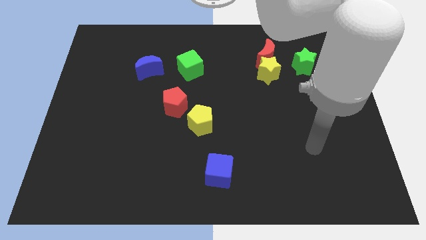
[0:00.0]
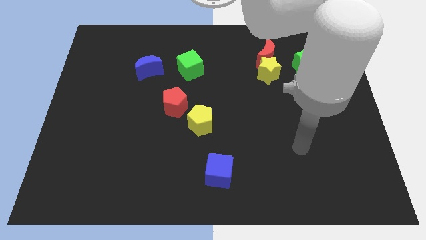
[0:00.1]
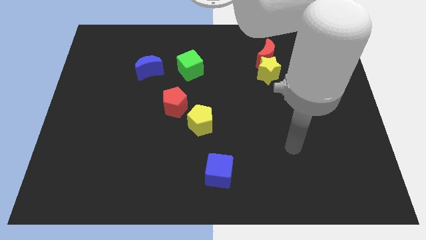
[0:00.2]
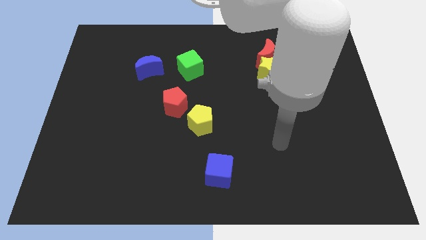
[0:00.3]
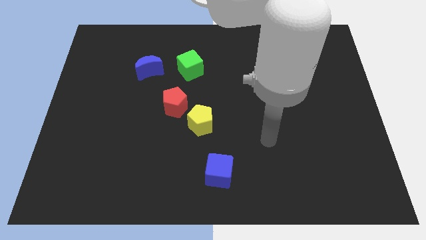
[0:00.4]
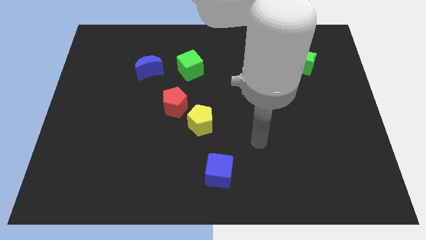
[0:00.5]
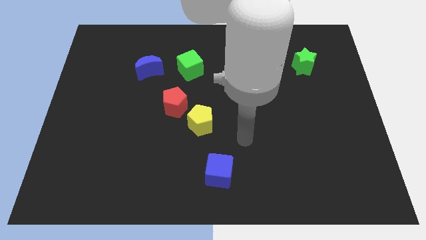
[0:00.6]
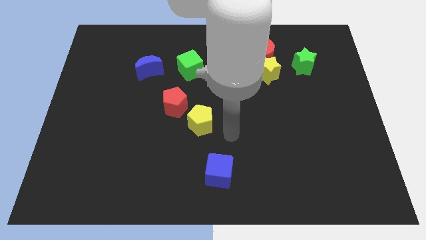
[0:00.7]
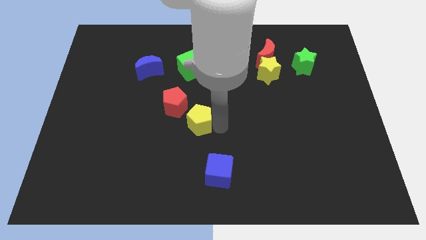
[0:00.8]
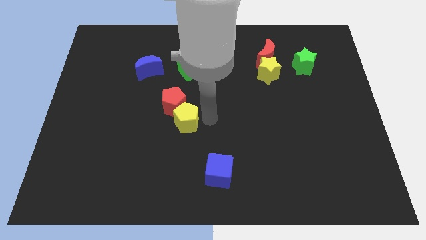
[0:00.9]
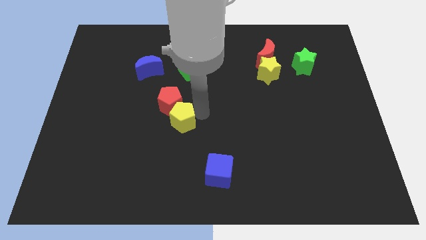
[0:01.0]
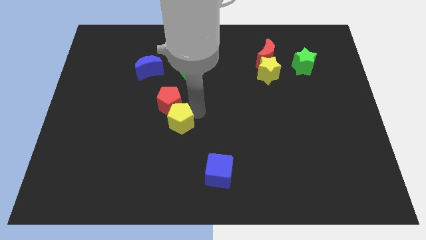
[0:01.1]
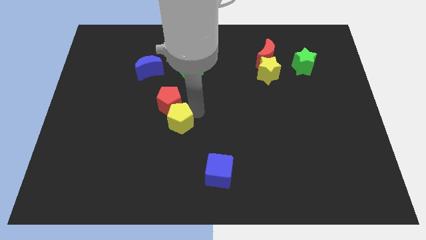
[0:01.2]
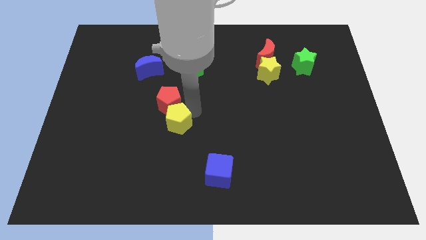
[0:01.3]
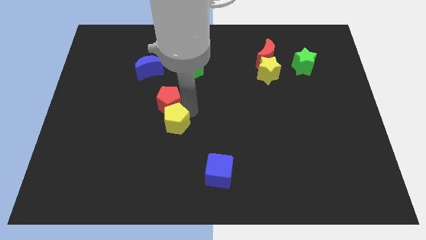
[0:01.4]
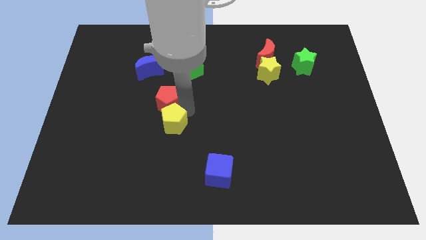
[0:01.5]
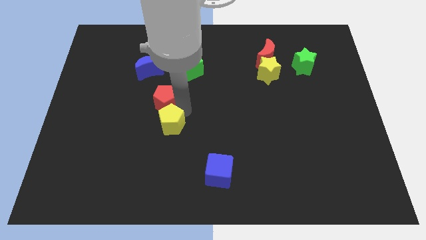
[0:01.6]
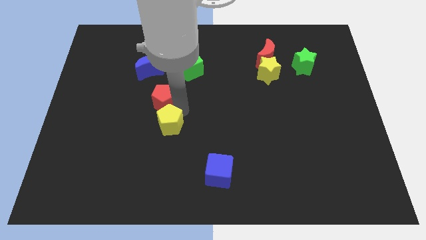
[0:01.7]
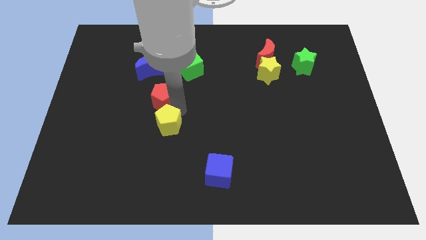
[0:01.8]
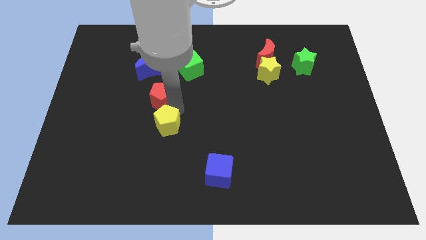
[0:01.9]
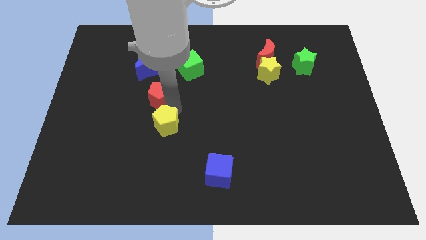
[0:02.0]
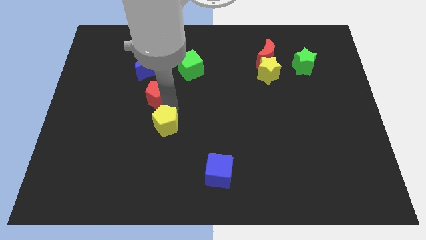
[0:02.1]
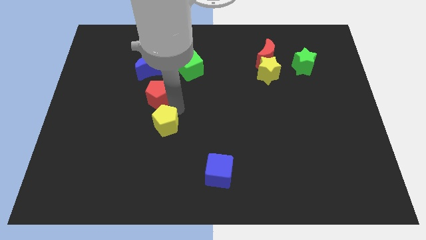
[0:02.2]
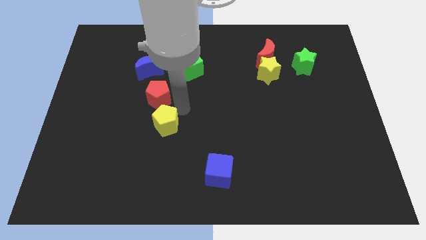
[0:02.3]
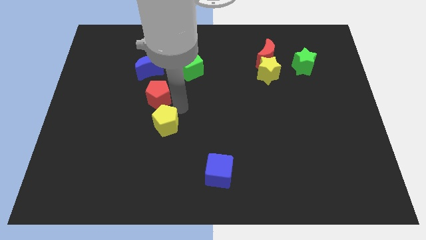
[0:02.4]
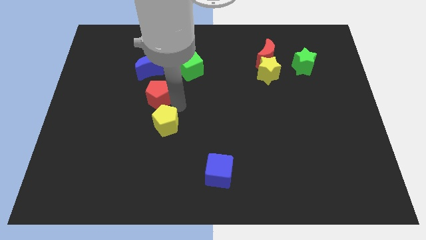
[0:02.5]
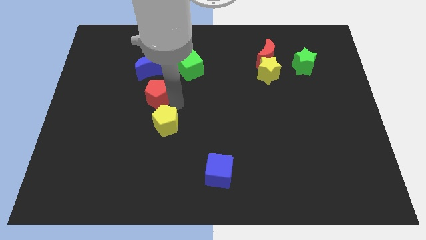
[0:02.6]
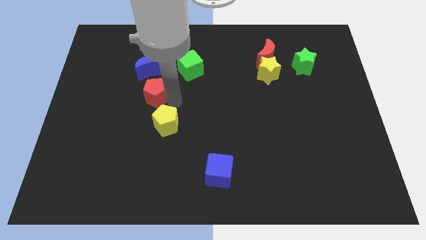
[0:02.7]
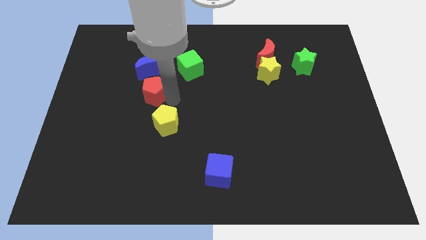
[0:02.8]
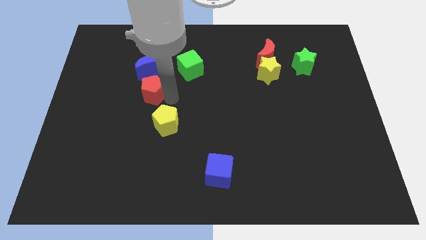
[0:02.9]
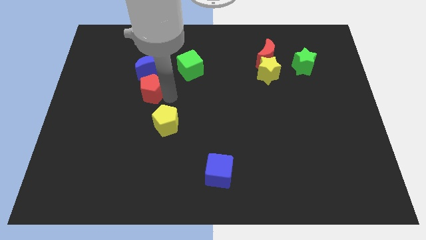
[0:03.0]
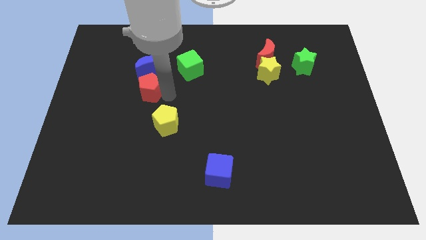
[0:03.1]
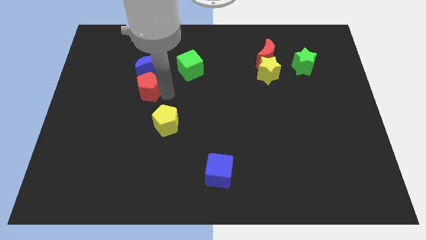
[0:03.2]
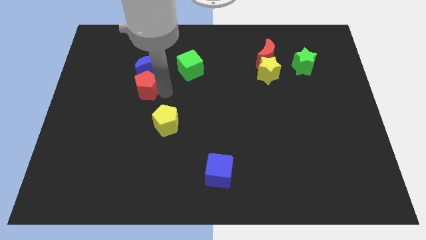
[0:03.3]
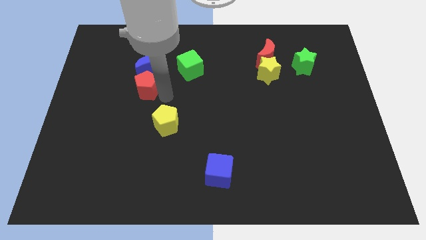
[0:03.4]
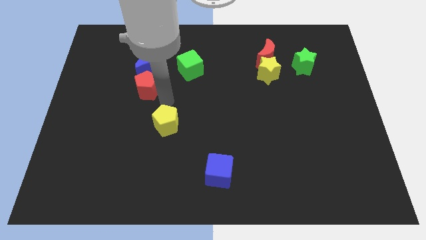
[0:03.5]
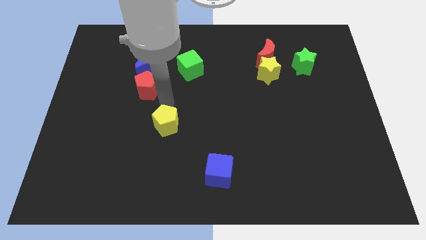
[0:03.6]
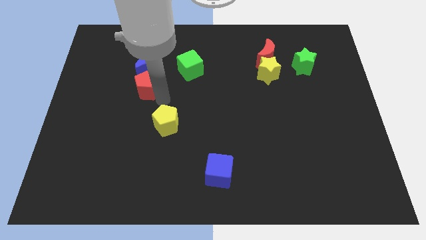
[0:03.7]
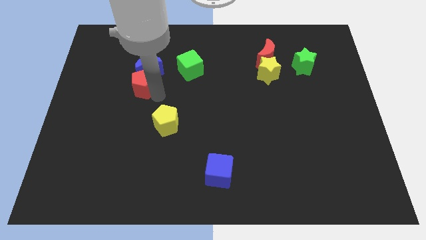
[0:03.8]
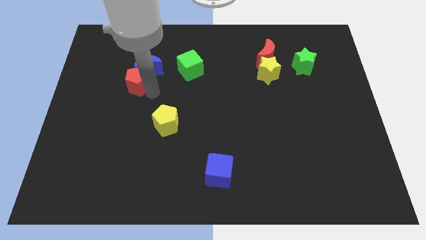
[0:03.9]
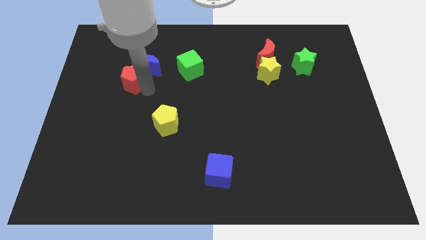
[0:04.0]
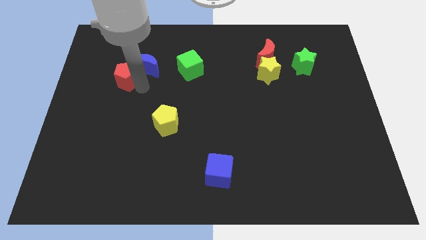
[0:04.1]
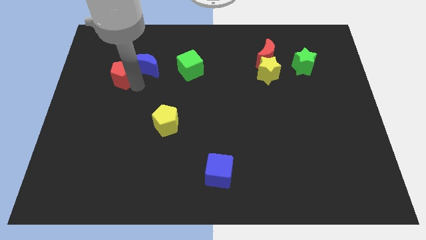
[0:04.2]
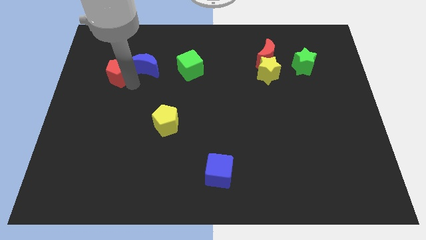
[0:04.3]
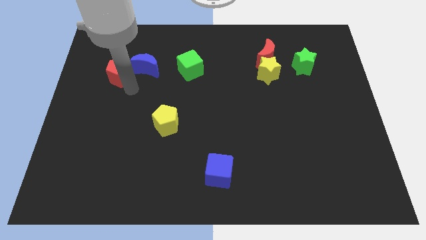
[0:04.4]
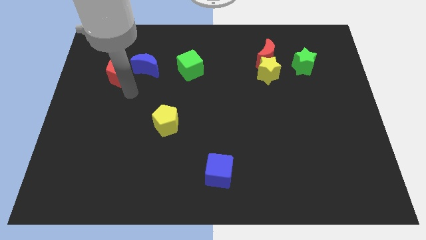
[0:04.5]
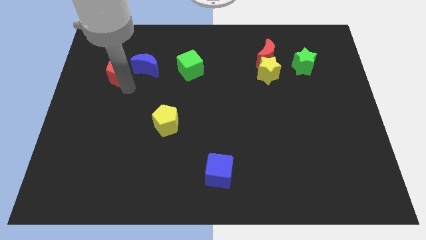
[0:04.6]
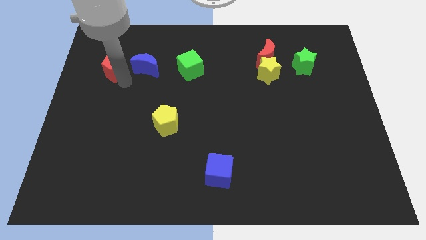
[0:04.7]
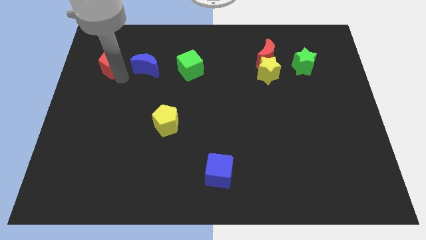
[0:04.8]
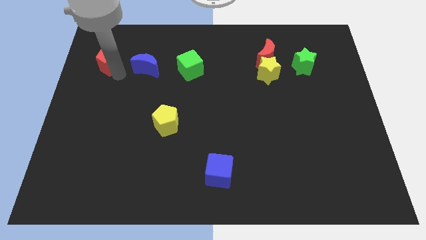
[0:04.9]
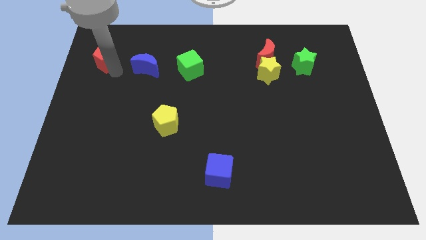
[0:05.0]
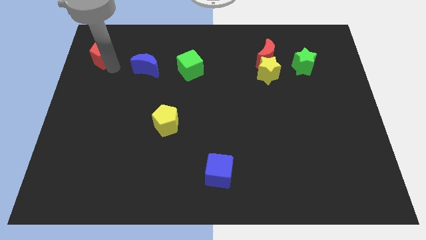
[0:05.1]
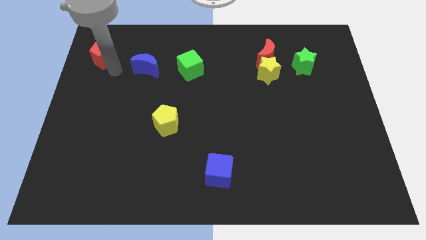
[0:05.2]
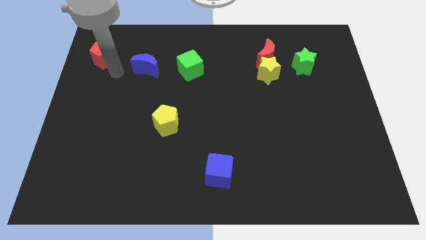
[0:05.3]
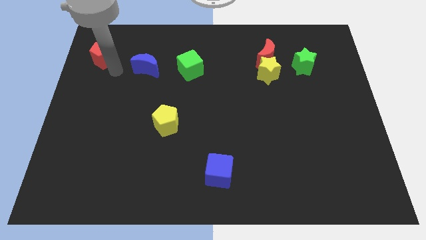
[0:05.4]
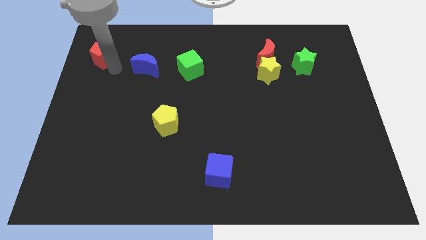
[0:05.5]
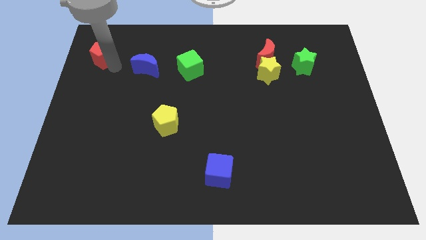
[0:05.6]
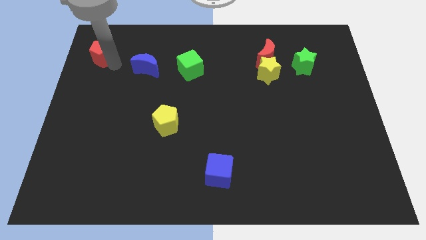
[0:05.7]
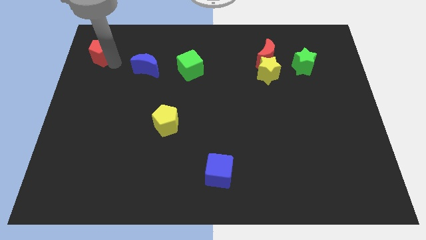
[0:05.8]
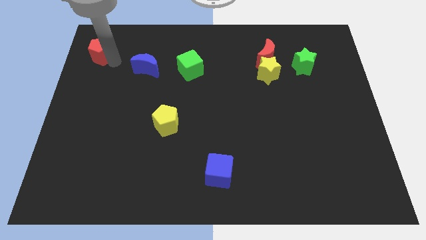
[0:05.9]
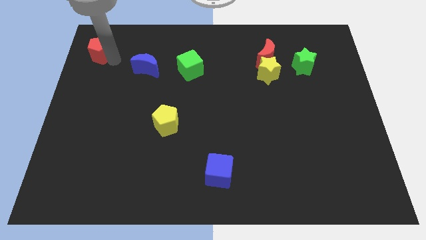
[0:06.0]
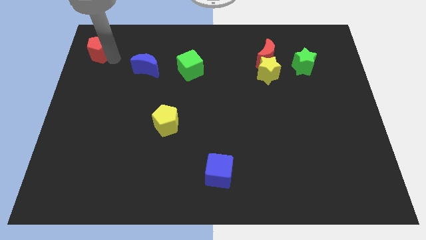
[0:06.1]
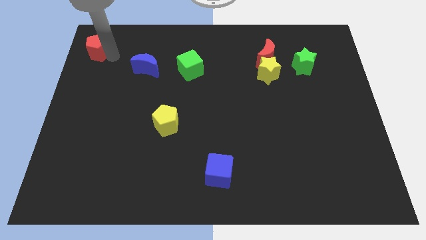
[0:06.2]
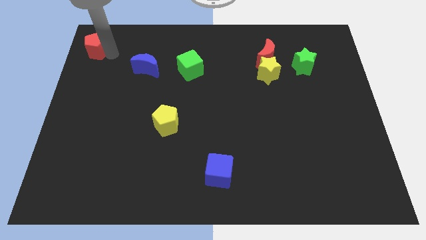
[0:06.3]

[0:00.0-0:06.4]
push the red pentagon to the top left corner

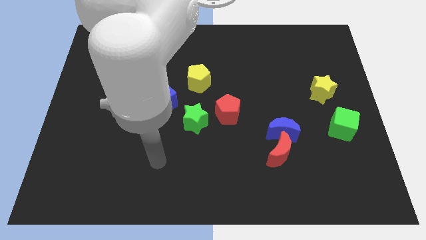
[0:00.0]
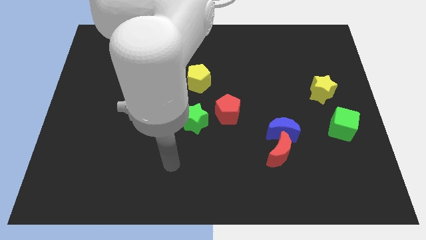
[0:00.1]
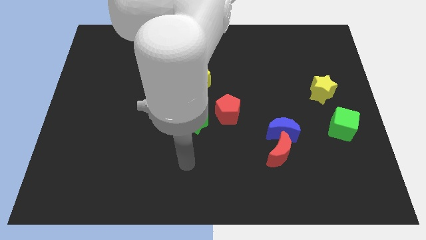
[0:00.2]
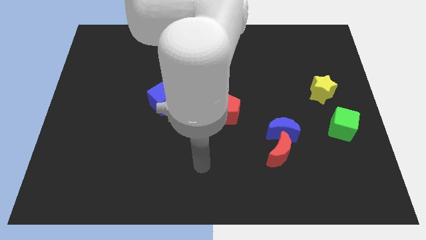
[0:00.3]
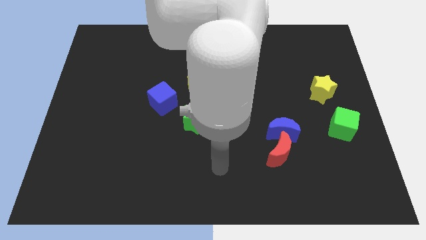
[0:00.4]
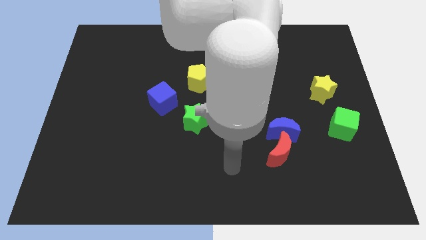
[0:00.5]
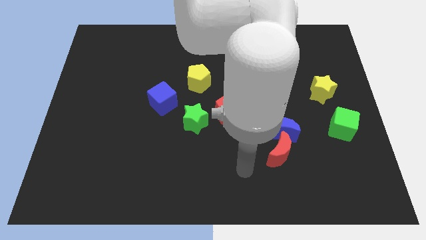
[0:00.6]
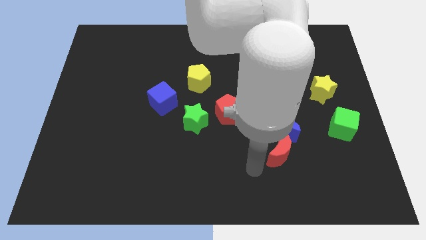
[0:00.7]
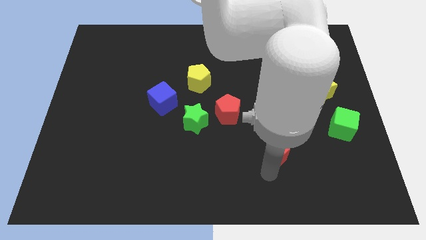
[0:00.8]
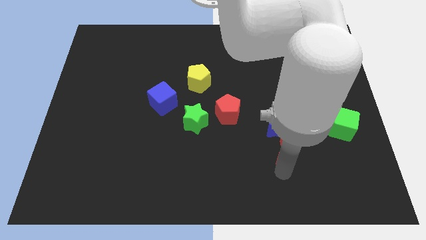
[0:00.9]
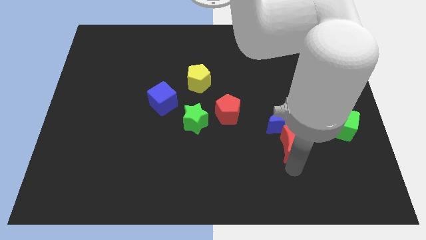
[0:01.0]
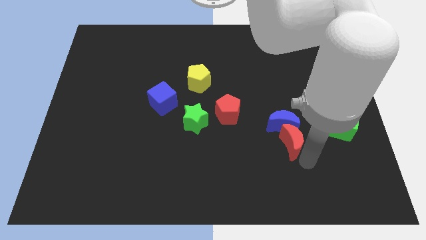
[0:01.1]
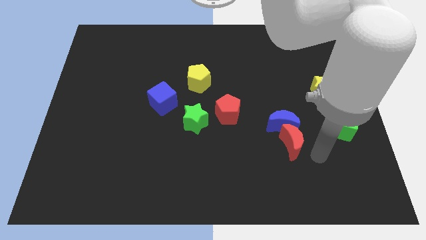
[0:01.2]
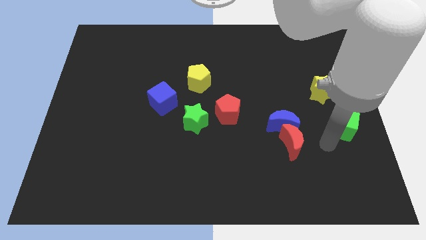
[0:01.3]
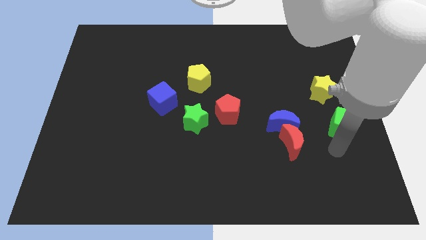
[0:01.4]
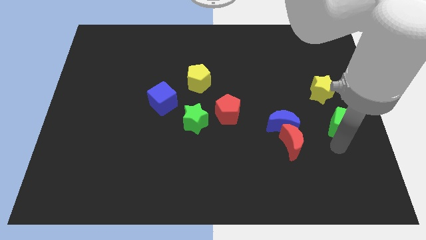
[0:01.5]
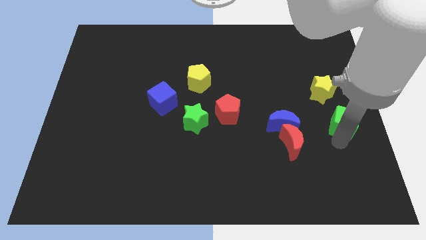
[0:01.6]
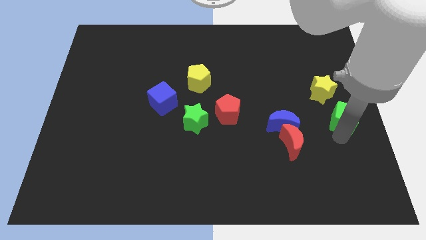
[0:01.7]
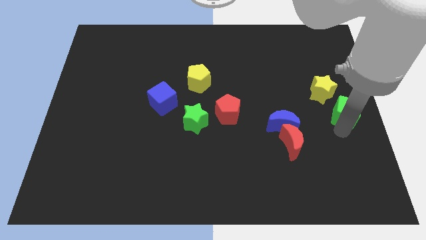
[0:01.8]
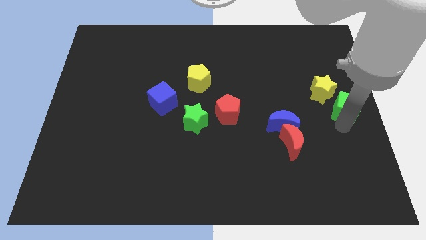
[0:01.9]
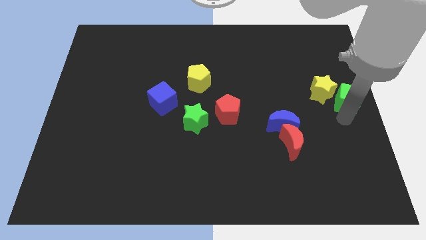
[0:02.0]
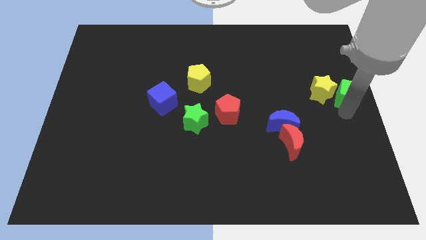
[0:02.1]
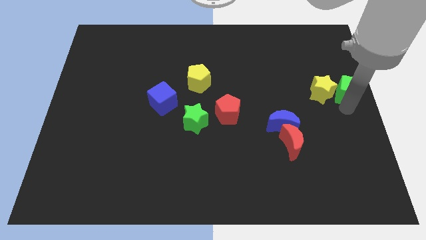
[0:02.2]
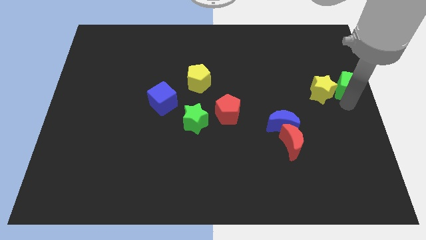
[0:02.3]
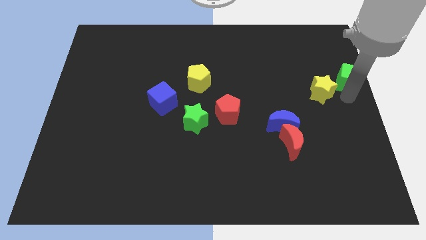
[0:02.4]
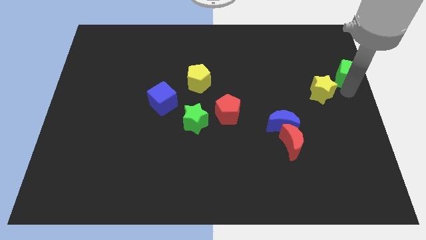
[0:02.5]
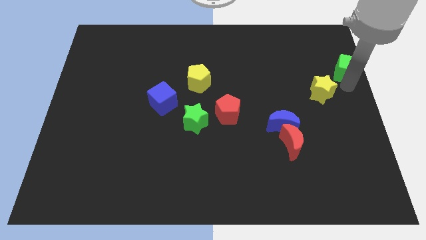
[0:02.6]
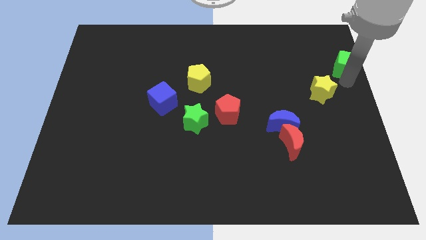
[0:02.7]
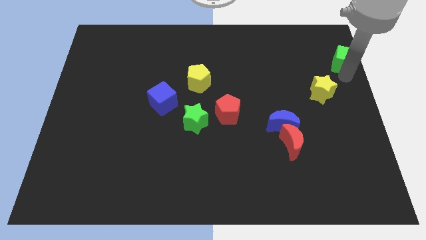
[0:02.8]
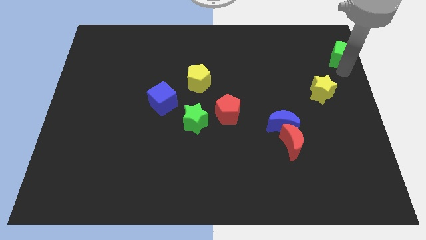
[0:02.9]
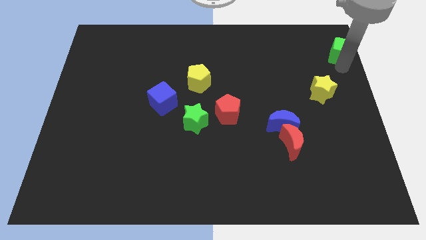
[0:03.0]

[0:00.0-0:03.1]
push the green cube to the top right corner
